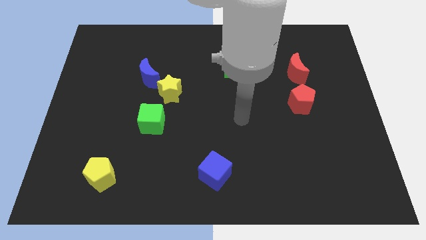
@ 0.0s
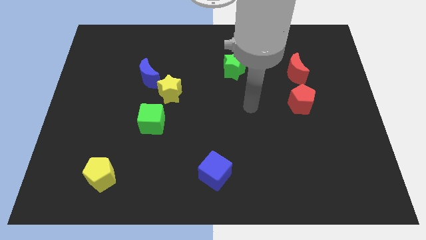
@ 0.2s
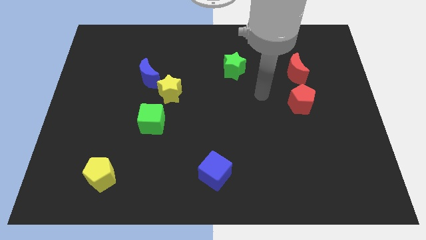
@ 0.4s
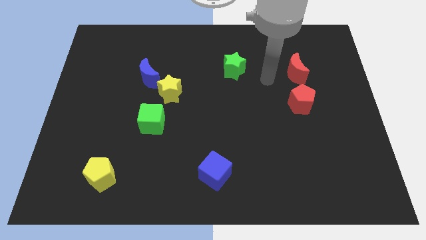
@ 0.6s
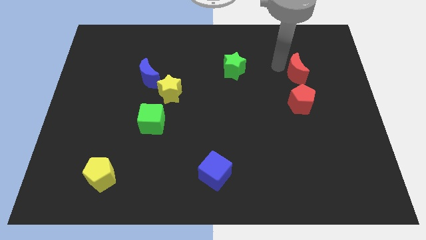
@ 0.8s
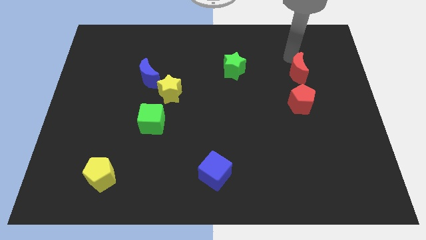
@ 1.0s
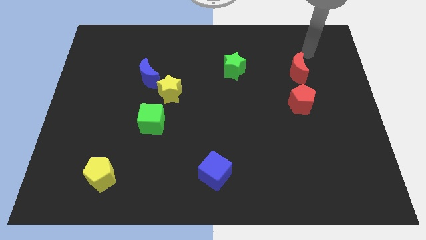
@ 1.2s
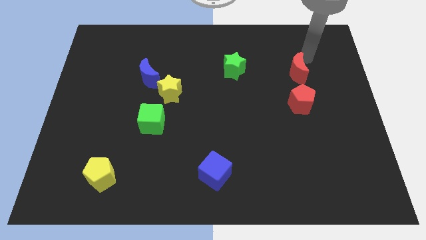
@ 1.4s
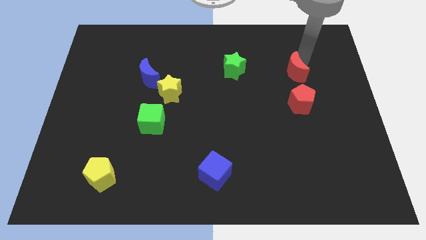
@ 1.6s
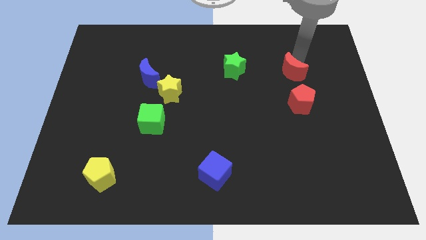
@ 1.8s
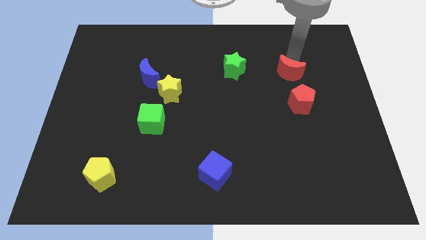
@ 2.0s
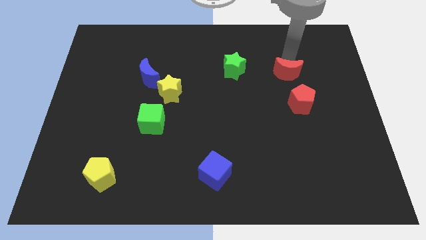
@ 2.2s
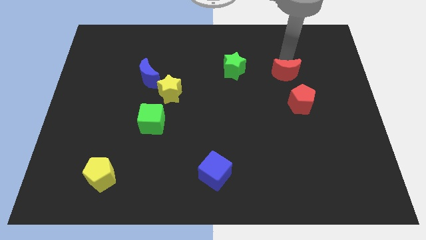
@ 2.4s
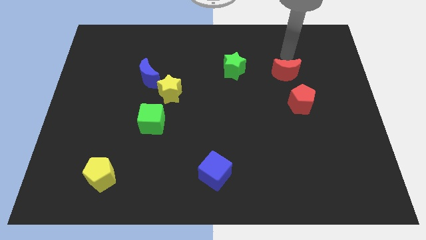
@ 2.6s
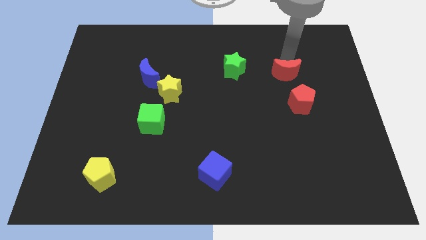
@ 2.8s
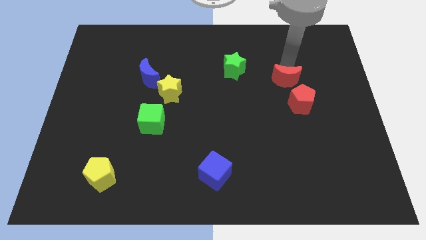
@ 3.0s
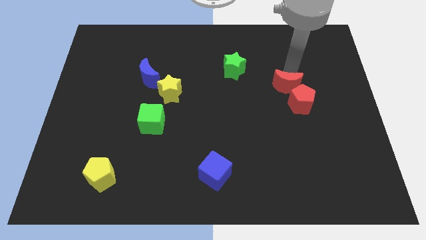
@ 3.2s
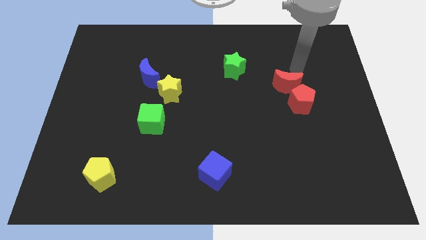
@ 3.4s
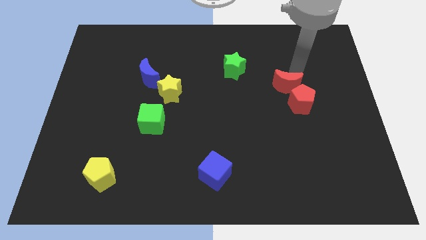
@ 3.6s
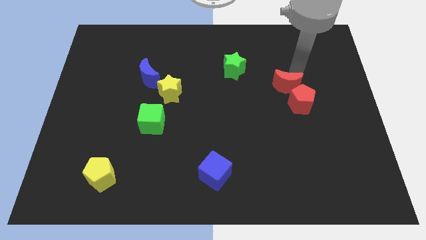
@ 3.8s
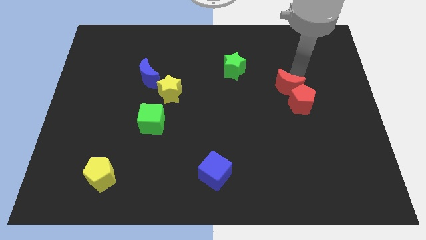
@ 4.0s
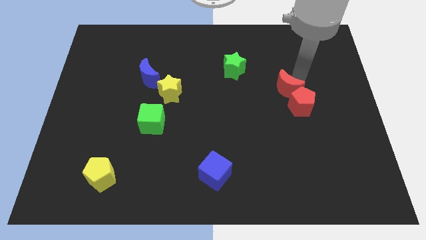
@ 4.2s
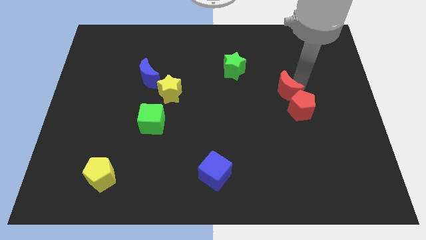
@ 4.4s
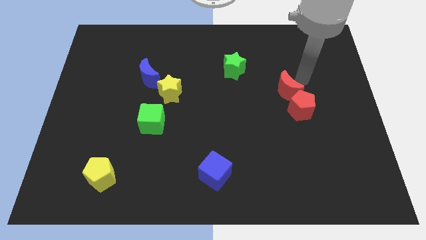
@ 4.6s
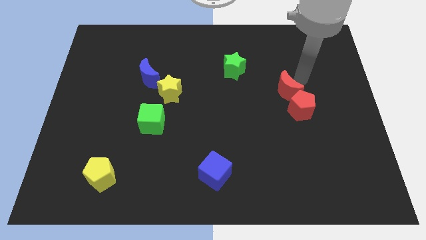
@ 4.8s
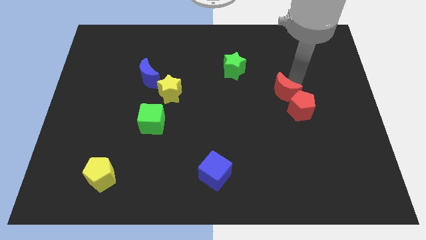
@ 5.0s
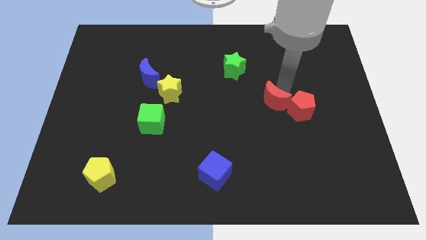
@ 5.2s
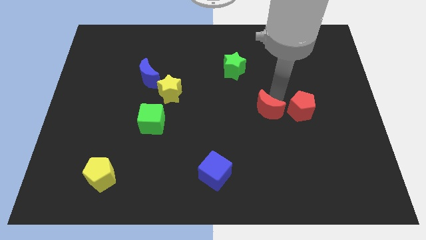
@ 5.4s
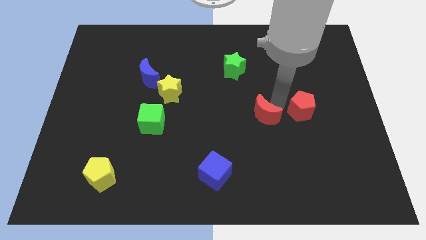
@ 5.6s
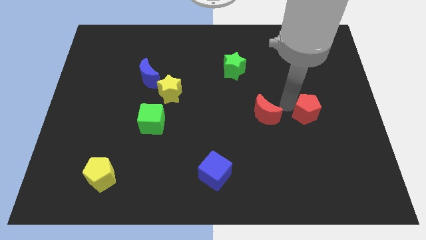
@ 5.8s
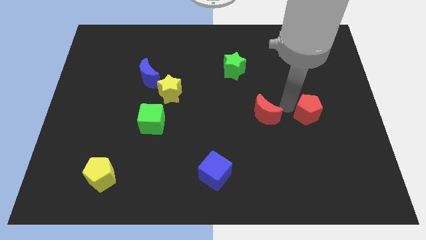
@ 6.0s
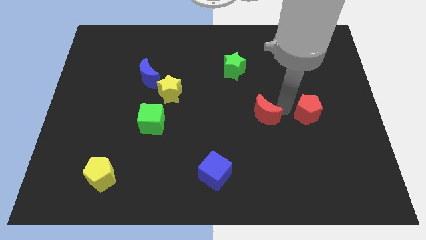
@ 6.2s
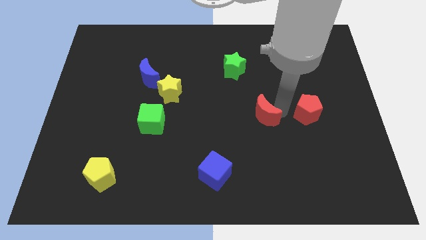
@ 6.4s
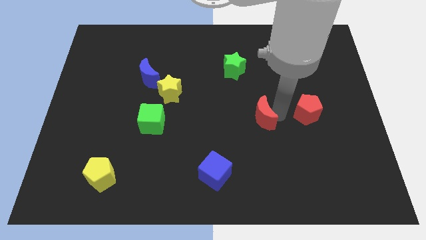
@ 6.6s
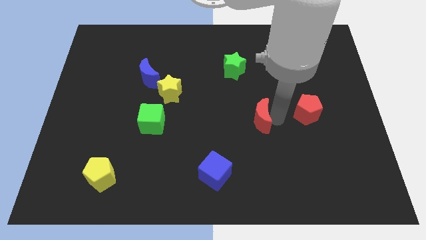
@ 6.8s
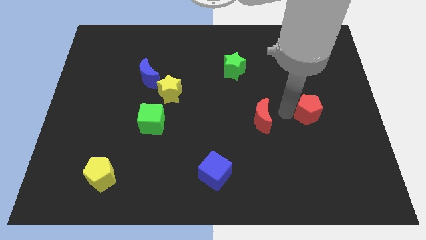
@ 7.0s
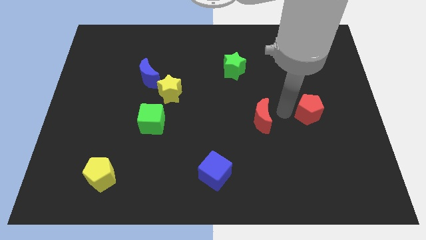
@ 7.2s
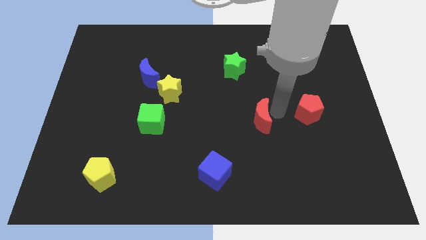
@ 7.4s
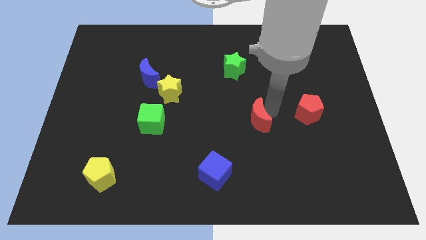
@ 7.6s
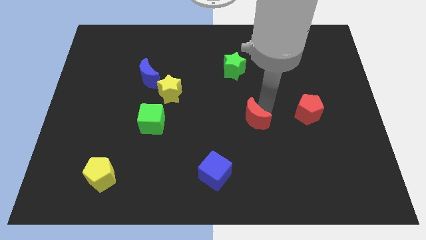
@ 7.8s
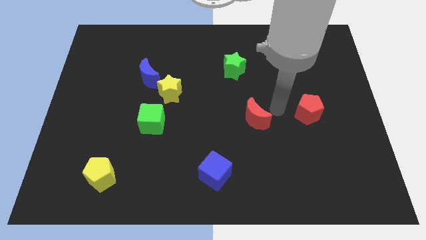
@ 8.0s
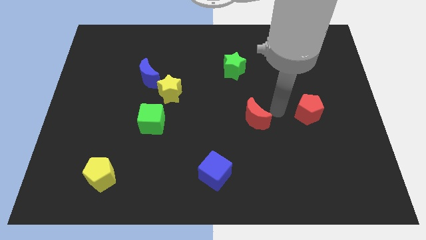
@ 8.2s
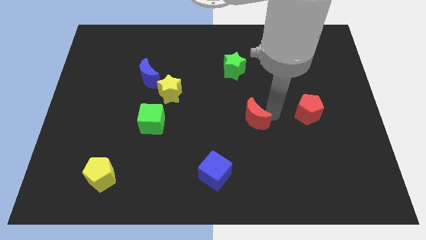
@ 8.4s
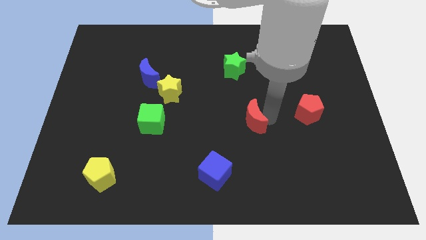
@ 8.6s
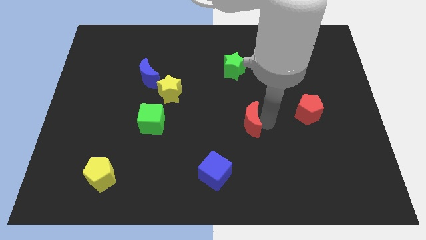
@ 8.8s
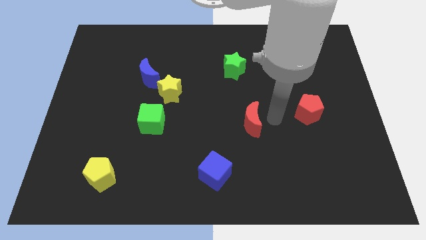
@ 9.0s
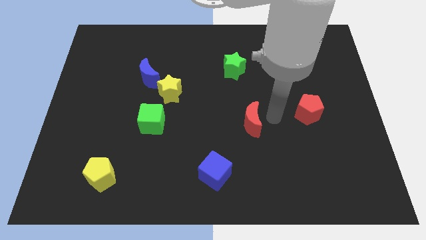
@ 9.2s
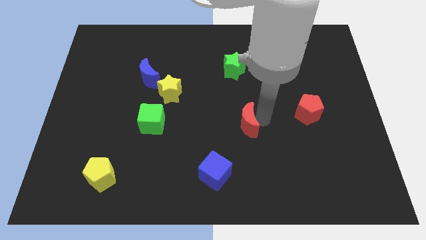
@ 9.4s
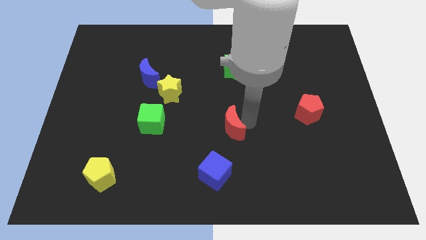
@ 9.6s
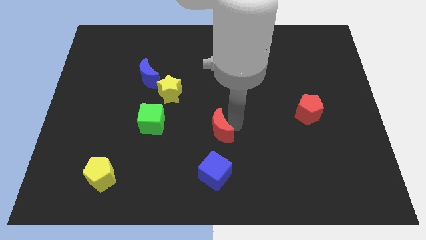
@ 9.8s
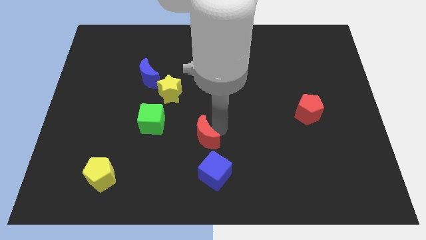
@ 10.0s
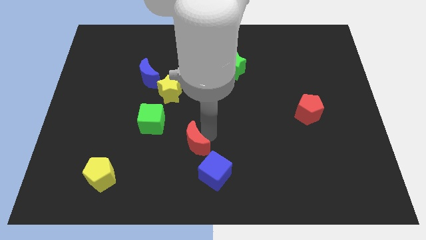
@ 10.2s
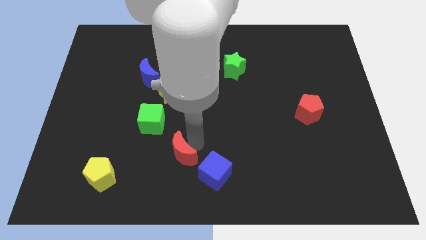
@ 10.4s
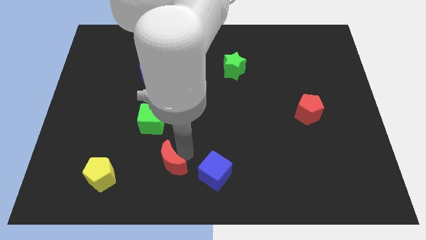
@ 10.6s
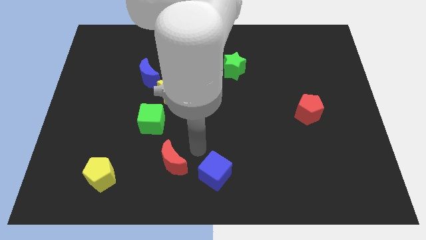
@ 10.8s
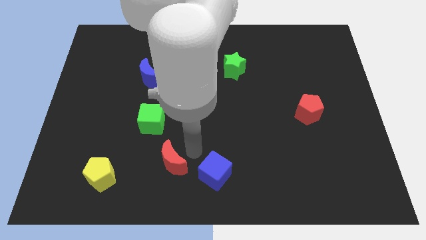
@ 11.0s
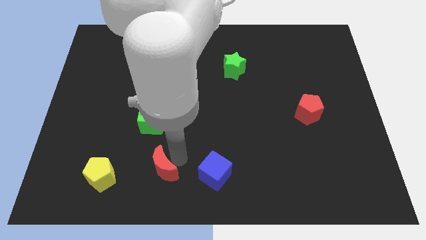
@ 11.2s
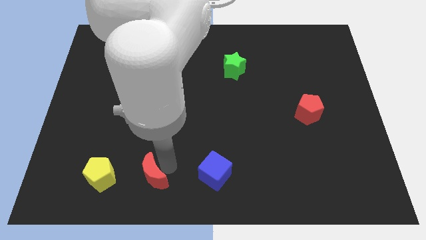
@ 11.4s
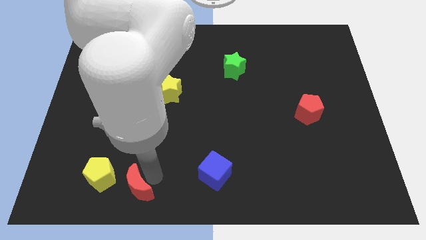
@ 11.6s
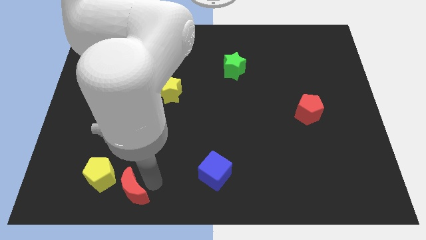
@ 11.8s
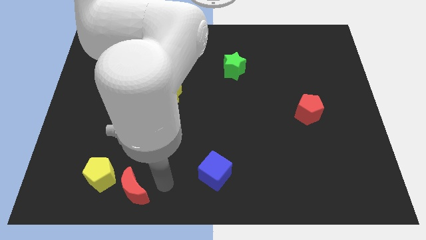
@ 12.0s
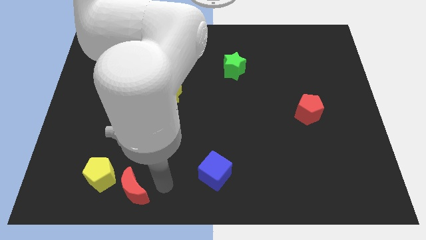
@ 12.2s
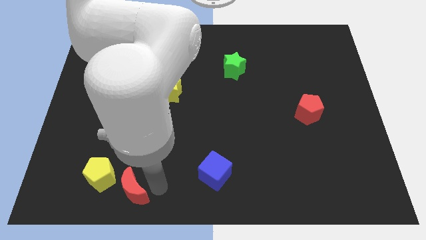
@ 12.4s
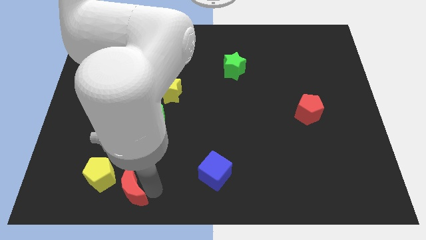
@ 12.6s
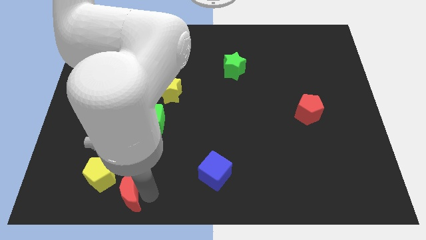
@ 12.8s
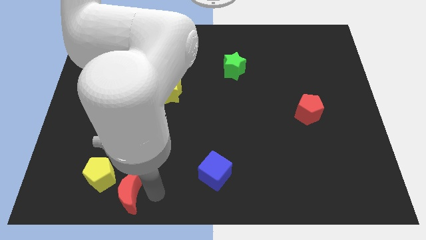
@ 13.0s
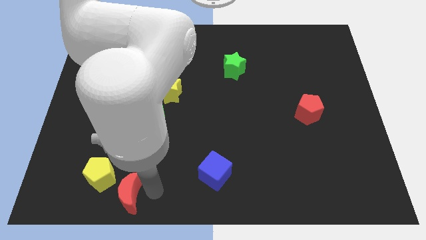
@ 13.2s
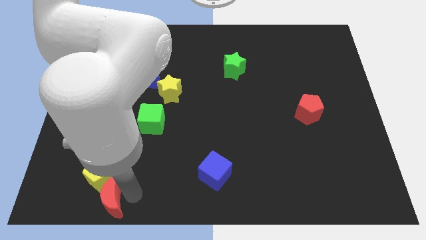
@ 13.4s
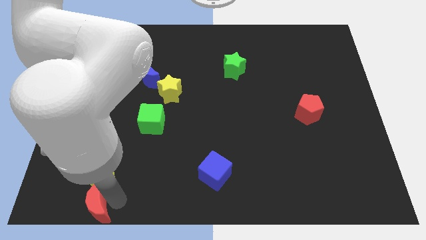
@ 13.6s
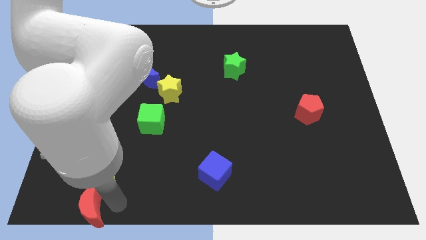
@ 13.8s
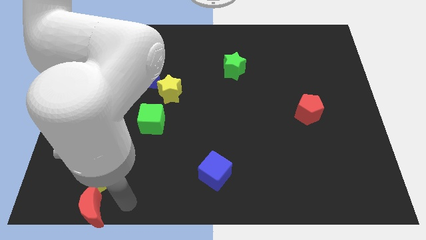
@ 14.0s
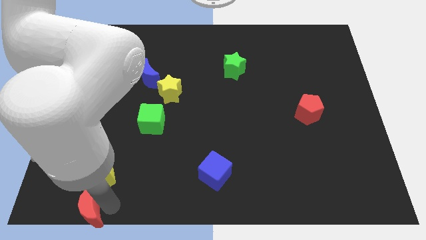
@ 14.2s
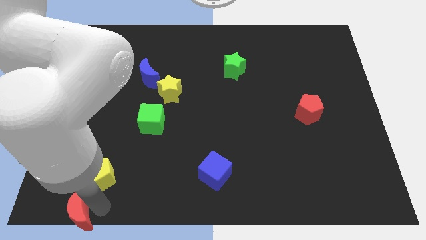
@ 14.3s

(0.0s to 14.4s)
push the red moon to the lower left corner
